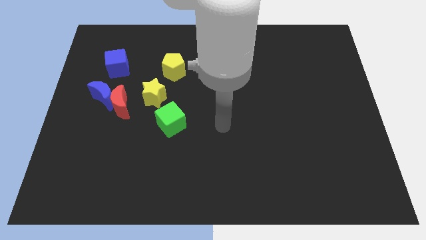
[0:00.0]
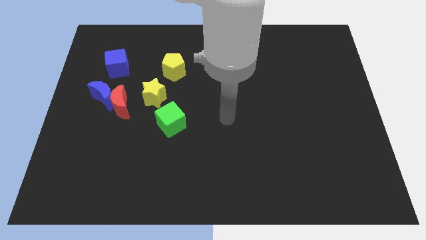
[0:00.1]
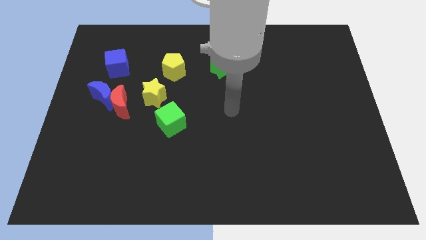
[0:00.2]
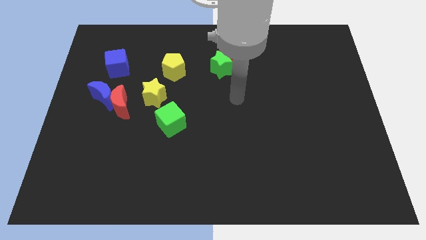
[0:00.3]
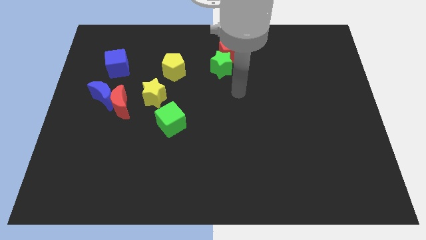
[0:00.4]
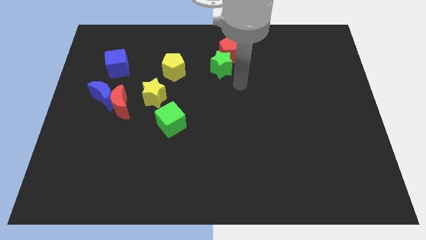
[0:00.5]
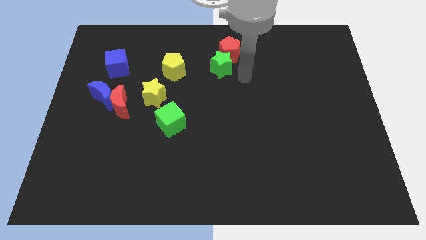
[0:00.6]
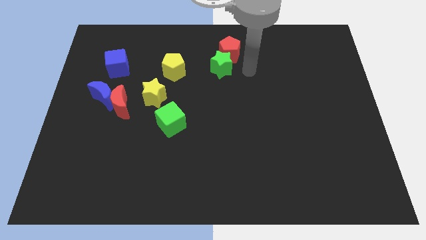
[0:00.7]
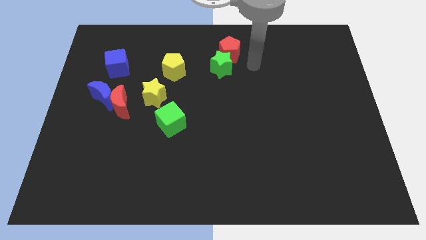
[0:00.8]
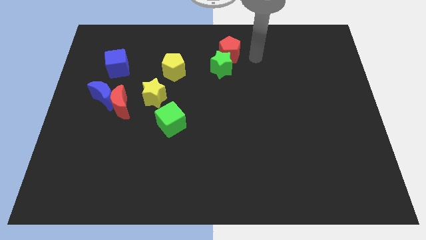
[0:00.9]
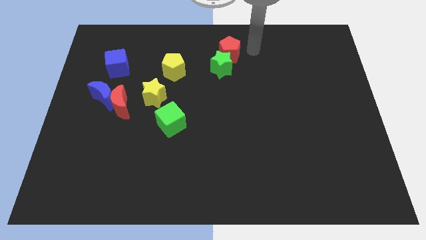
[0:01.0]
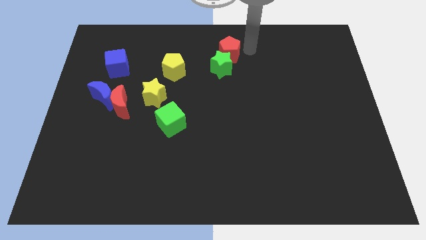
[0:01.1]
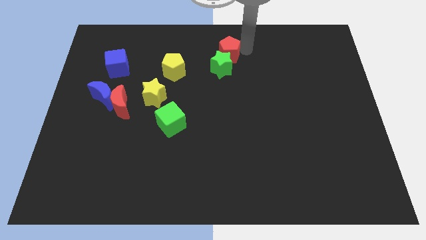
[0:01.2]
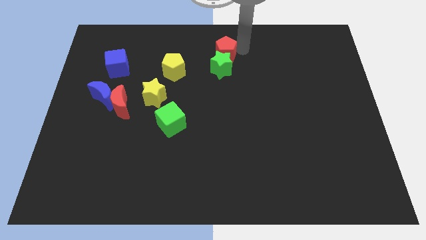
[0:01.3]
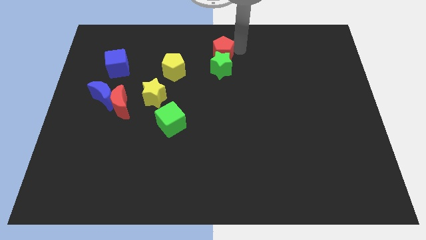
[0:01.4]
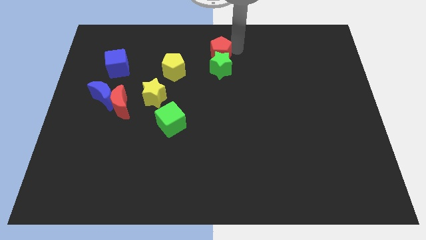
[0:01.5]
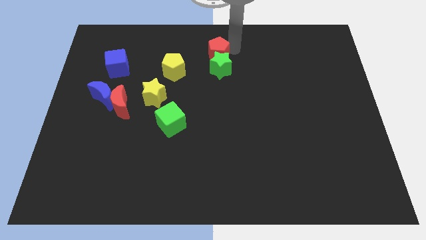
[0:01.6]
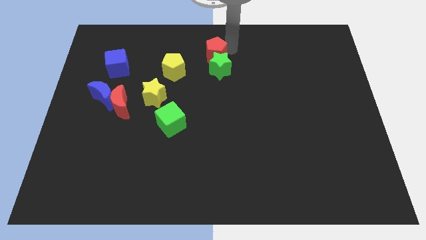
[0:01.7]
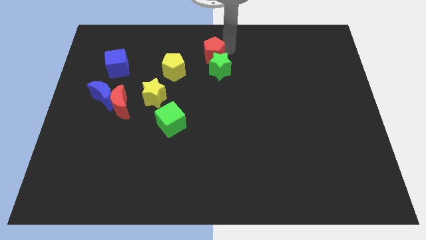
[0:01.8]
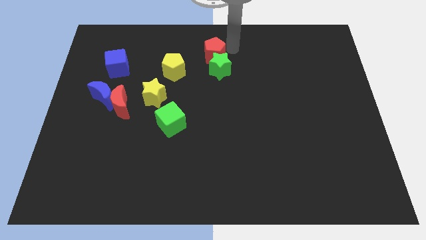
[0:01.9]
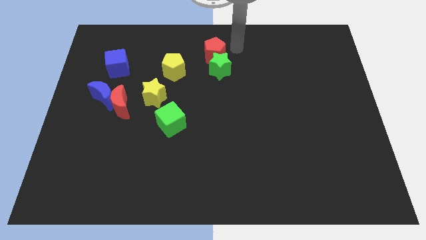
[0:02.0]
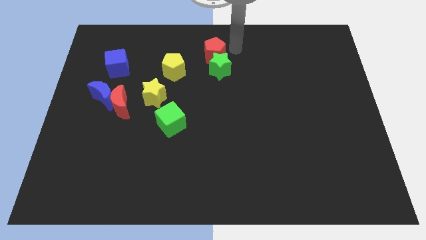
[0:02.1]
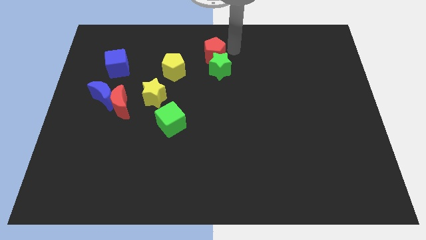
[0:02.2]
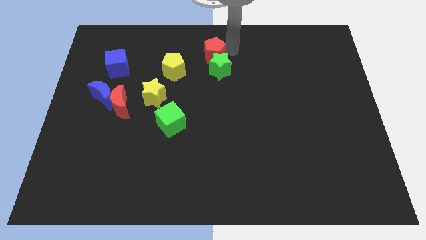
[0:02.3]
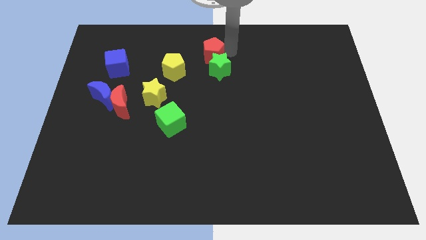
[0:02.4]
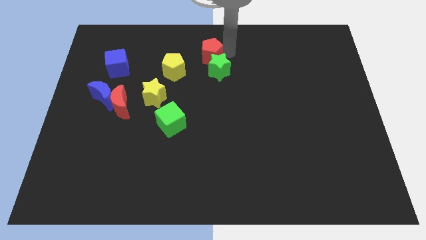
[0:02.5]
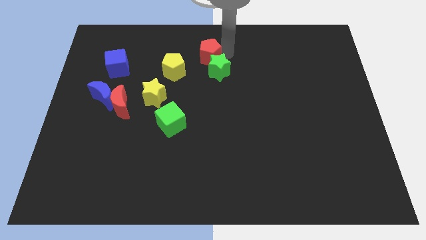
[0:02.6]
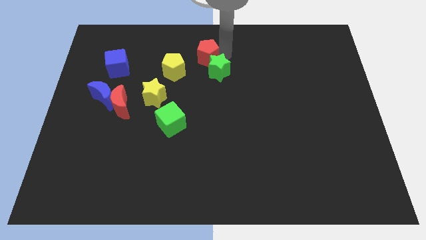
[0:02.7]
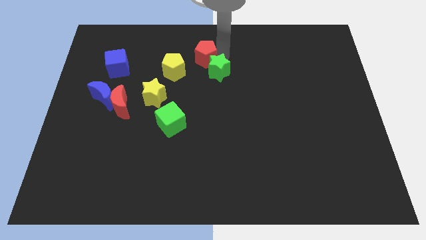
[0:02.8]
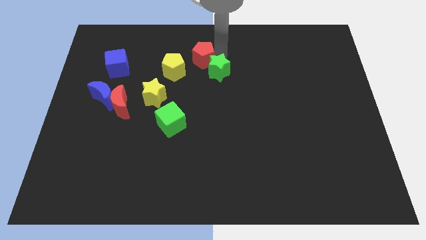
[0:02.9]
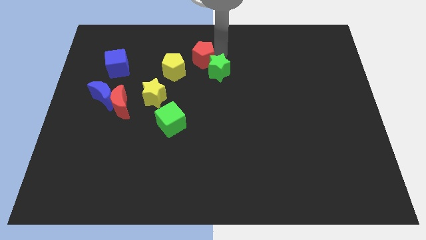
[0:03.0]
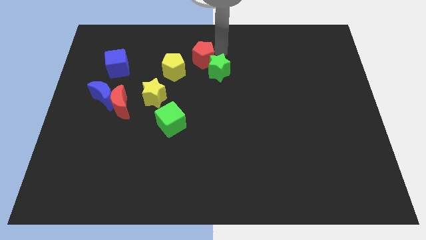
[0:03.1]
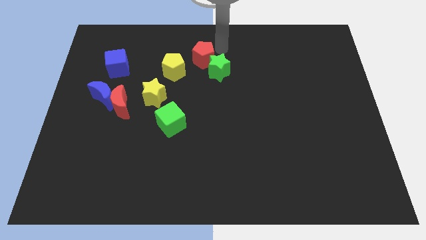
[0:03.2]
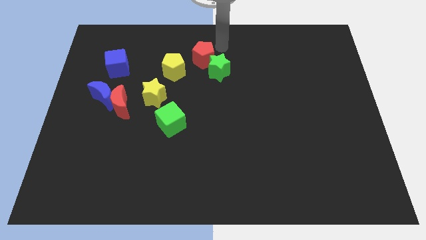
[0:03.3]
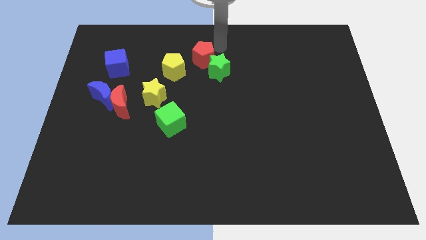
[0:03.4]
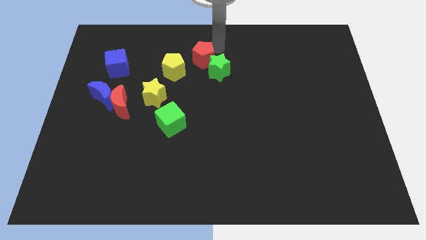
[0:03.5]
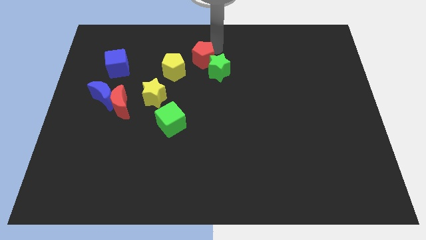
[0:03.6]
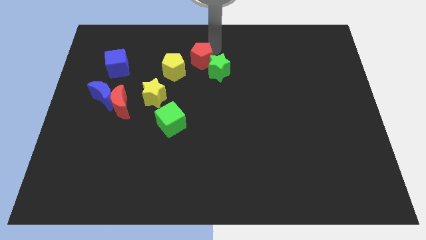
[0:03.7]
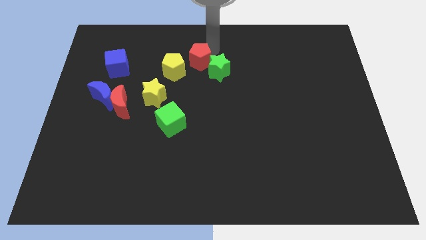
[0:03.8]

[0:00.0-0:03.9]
slightly push the red pentagon diagonally down and to the left

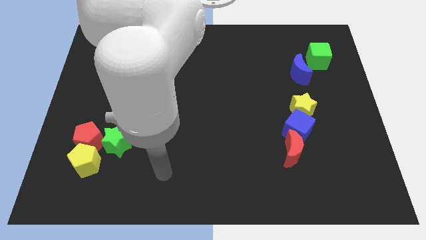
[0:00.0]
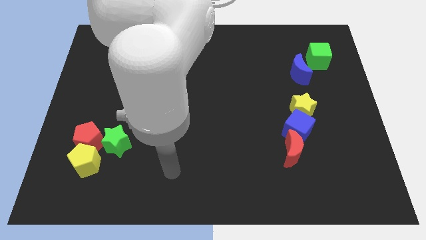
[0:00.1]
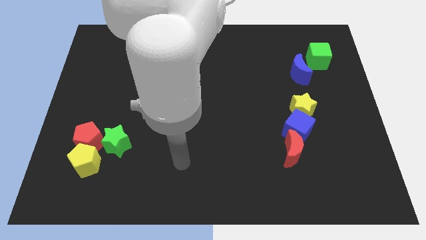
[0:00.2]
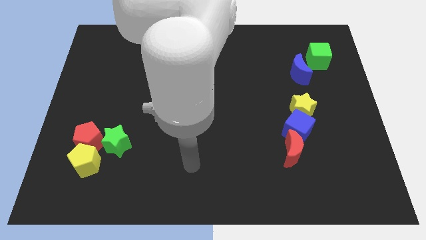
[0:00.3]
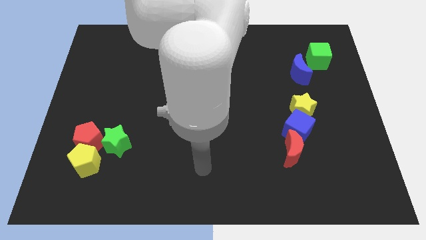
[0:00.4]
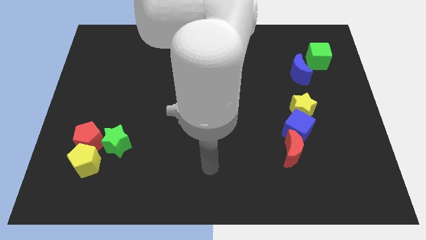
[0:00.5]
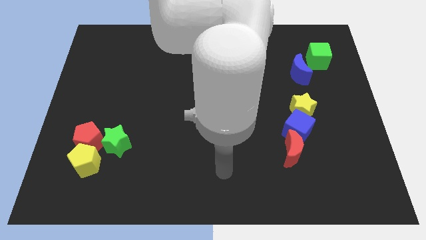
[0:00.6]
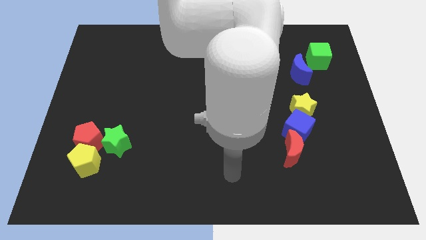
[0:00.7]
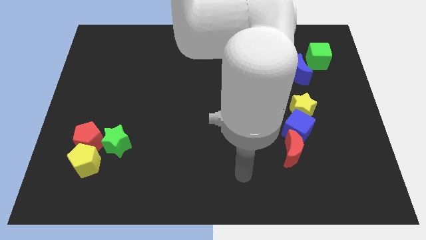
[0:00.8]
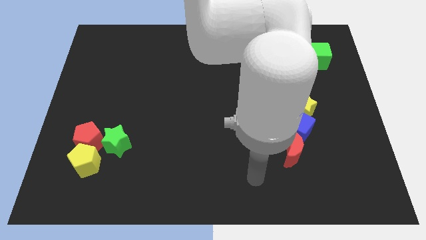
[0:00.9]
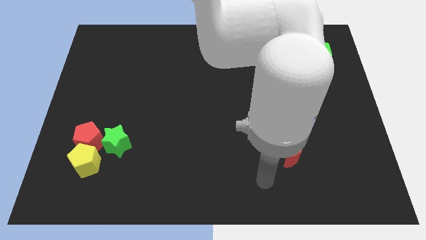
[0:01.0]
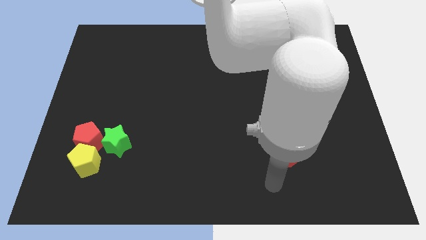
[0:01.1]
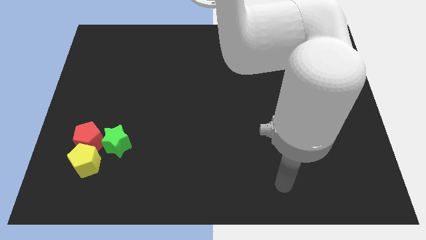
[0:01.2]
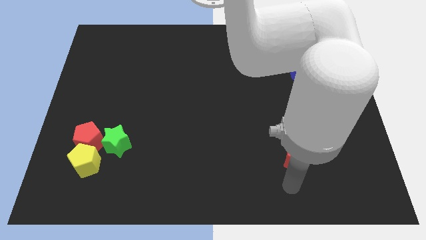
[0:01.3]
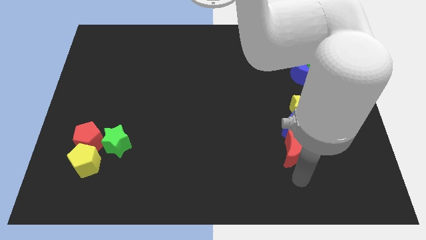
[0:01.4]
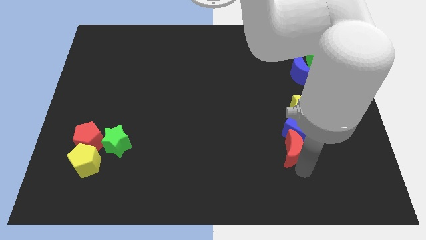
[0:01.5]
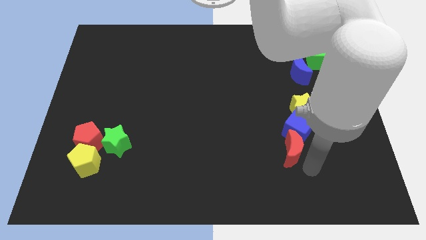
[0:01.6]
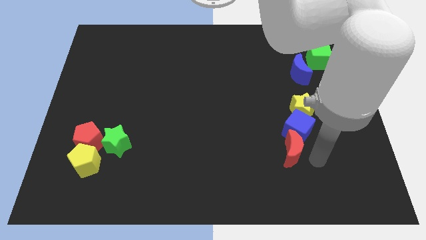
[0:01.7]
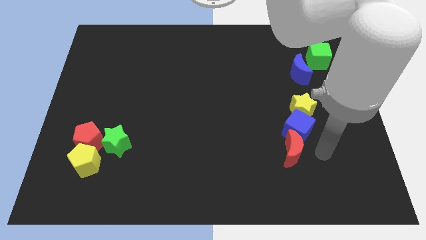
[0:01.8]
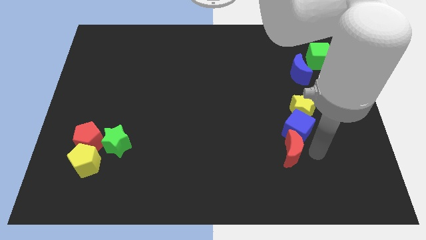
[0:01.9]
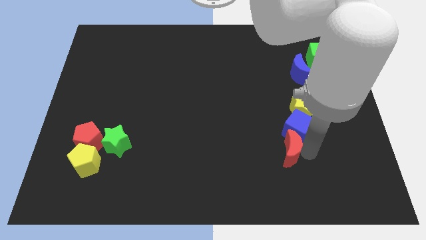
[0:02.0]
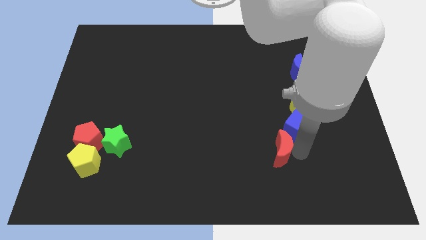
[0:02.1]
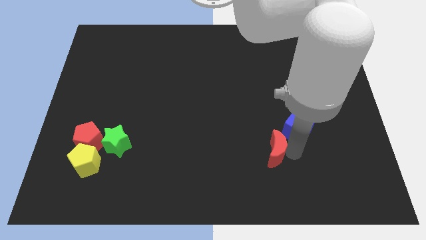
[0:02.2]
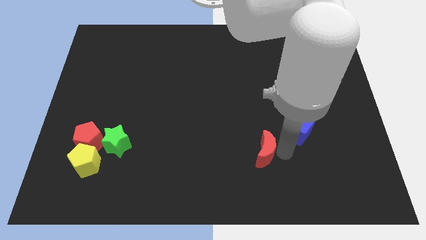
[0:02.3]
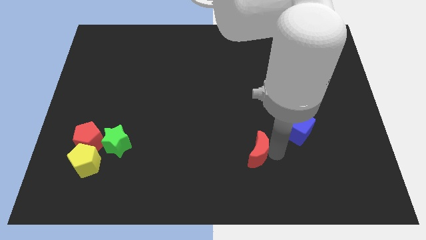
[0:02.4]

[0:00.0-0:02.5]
push the red moon a bit to the left

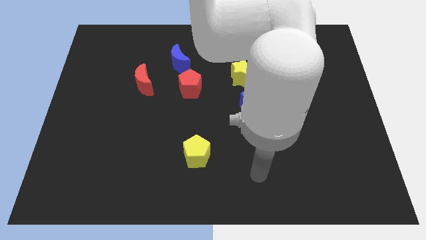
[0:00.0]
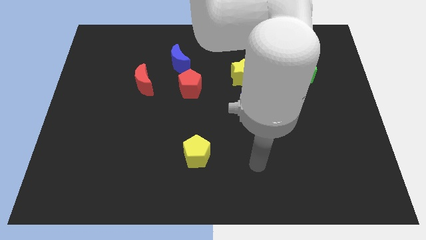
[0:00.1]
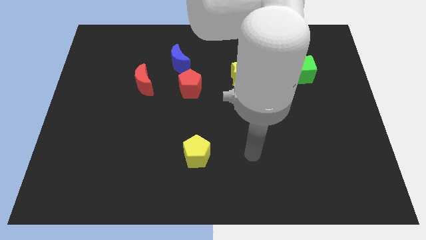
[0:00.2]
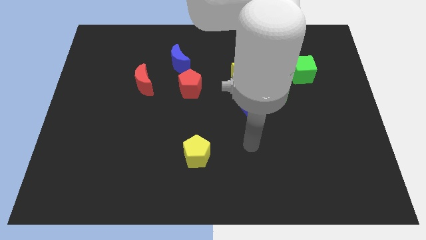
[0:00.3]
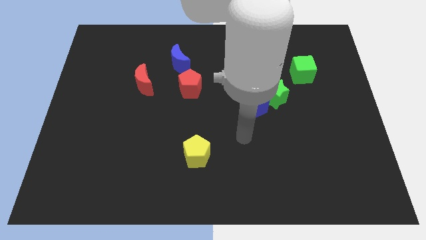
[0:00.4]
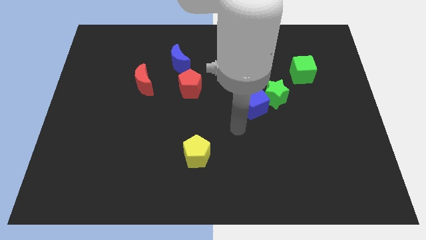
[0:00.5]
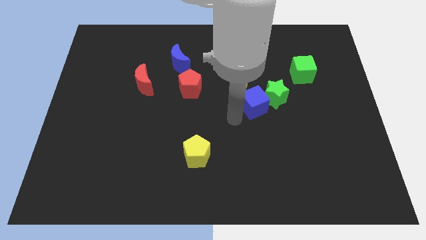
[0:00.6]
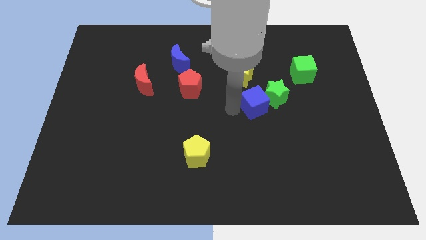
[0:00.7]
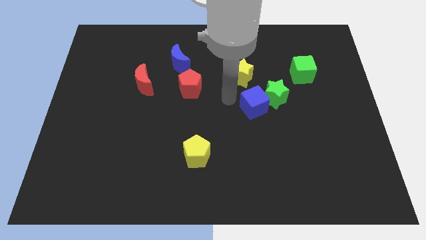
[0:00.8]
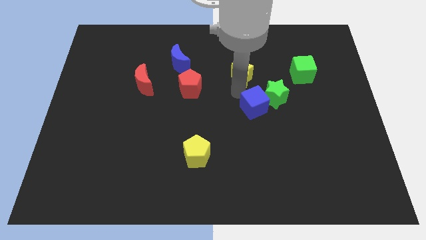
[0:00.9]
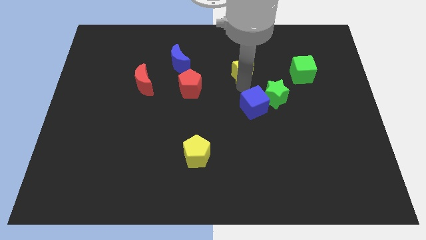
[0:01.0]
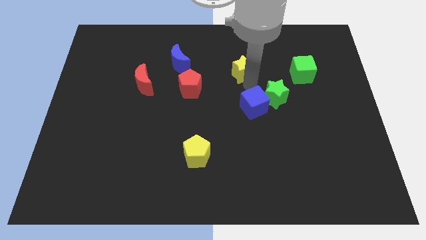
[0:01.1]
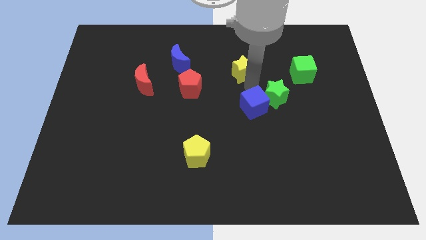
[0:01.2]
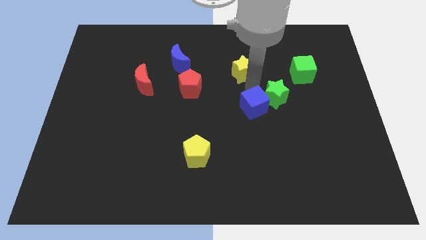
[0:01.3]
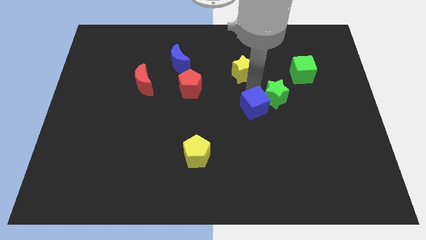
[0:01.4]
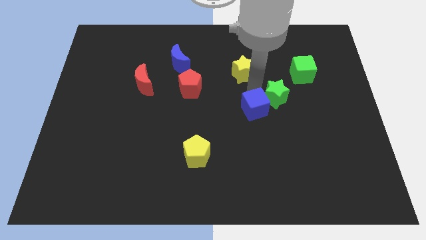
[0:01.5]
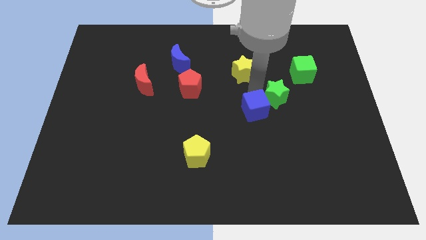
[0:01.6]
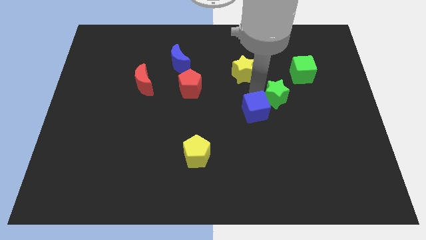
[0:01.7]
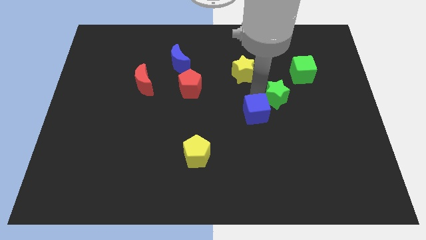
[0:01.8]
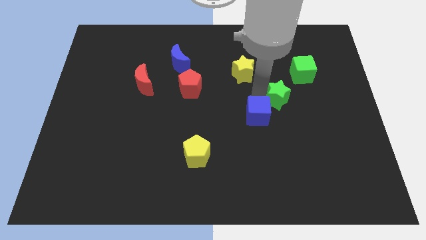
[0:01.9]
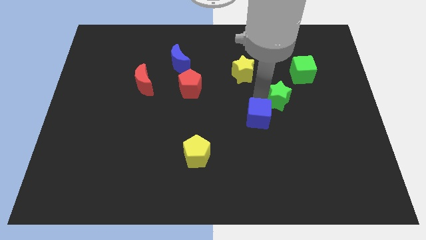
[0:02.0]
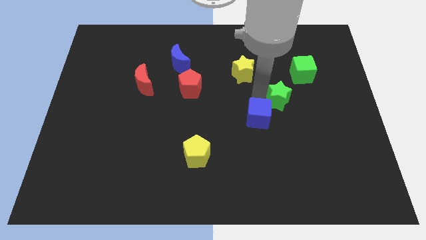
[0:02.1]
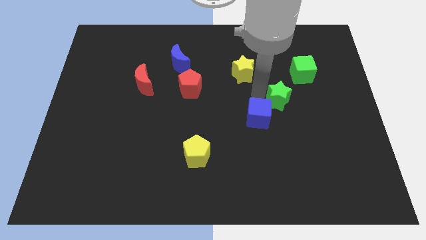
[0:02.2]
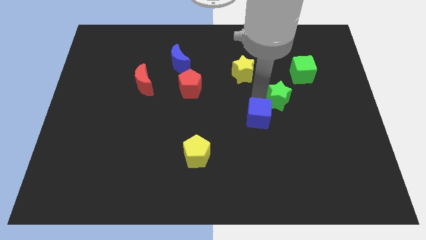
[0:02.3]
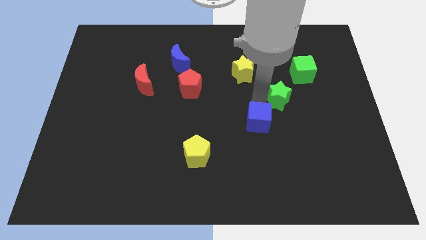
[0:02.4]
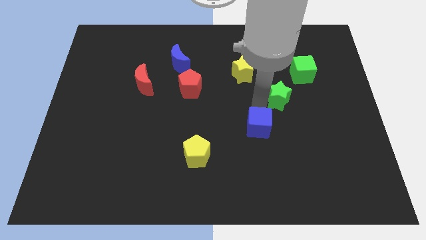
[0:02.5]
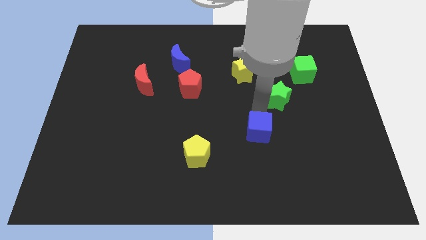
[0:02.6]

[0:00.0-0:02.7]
slide the blue cube down slightly
